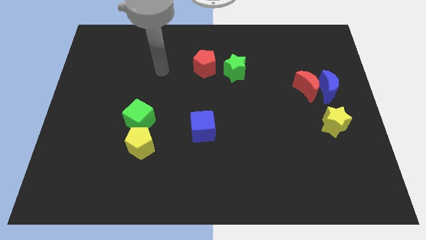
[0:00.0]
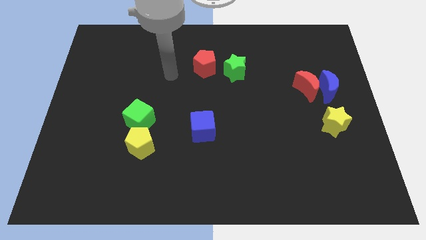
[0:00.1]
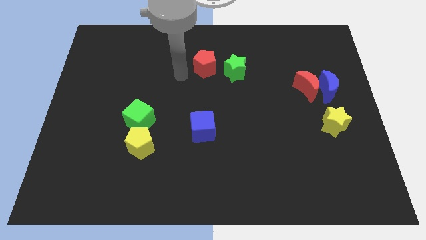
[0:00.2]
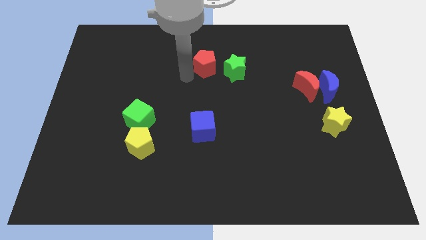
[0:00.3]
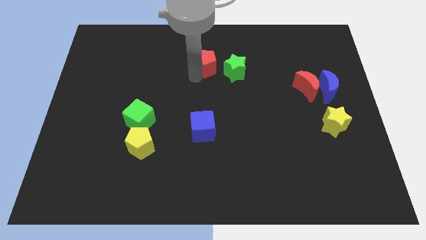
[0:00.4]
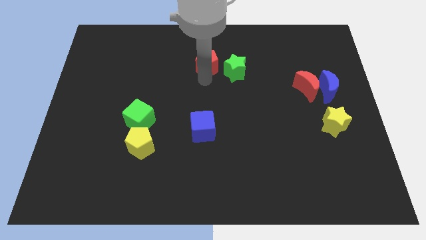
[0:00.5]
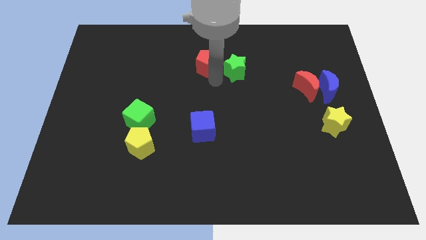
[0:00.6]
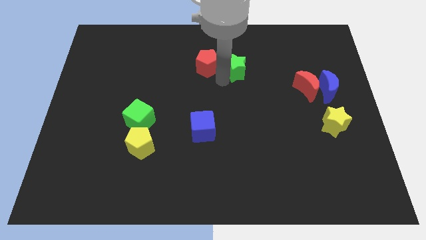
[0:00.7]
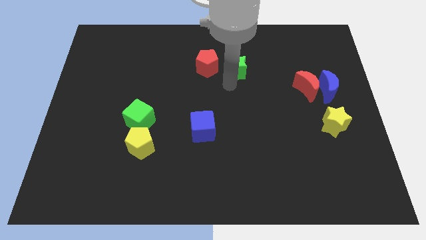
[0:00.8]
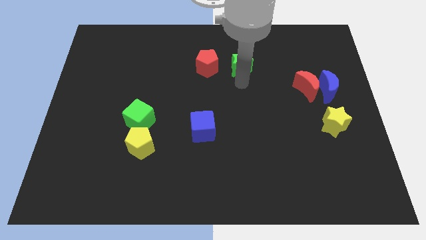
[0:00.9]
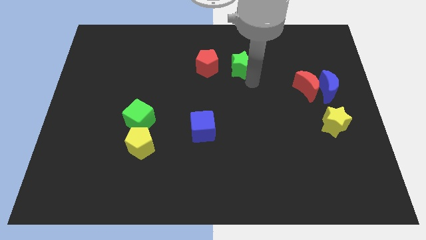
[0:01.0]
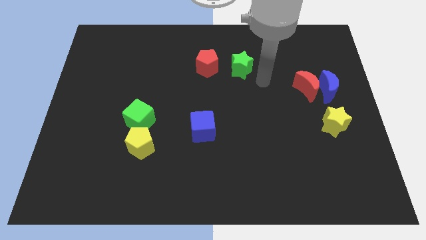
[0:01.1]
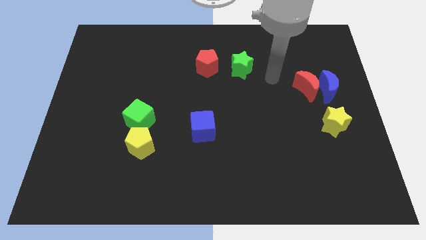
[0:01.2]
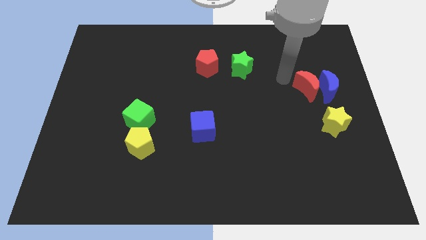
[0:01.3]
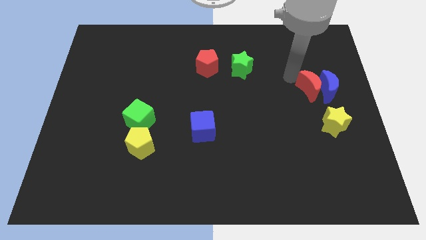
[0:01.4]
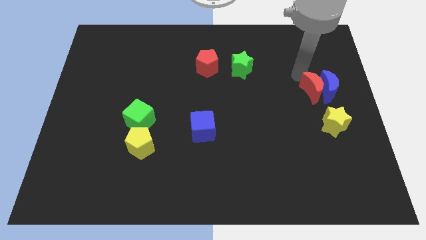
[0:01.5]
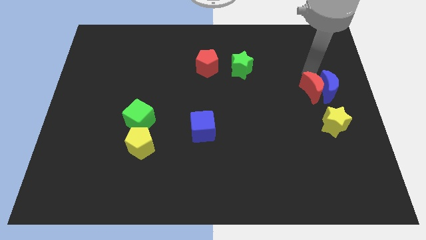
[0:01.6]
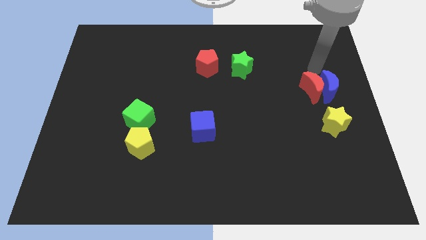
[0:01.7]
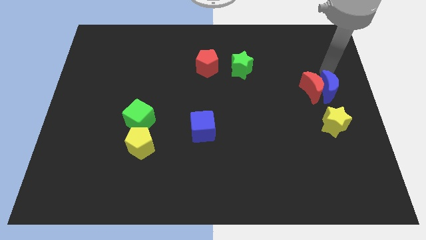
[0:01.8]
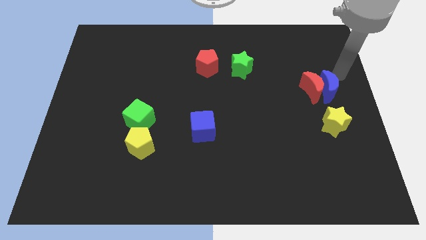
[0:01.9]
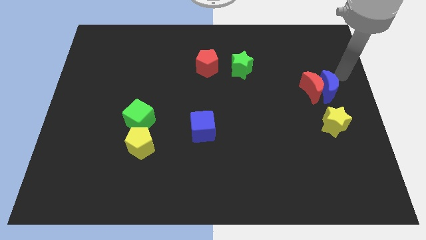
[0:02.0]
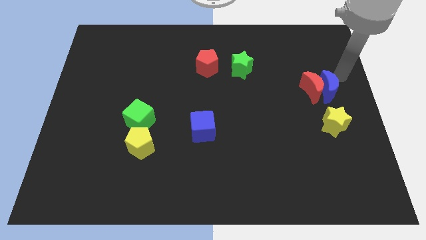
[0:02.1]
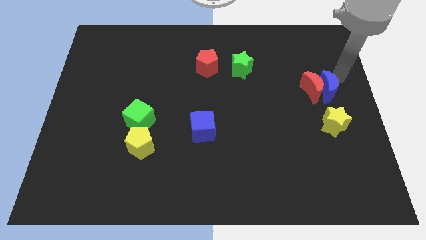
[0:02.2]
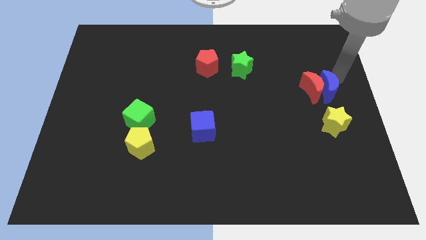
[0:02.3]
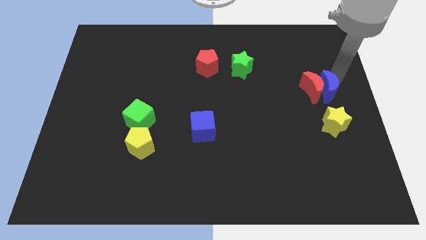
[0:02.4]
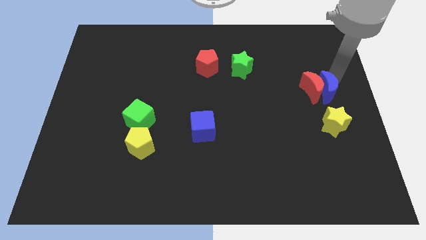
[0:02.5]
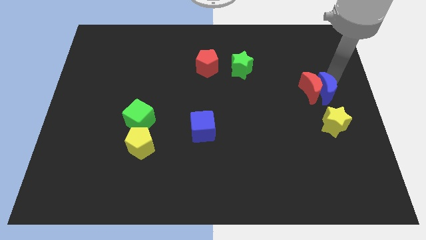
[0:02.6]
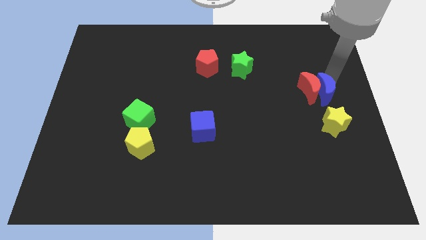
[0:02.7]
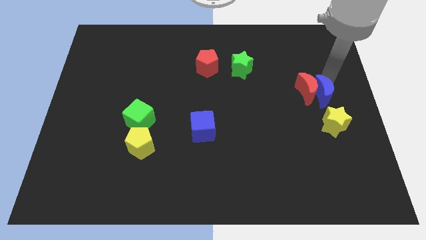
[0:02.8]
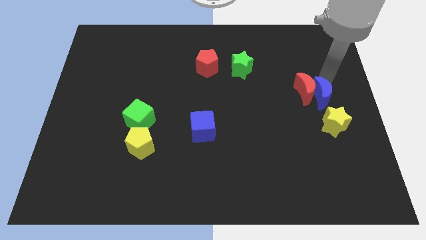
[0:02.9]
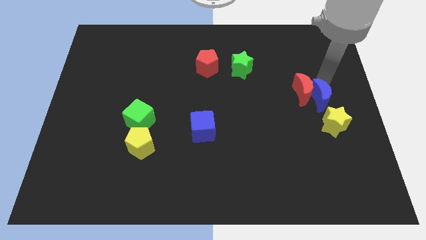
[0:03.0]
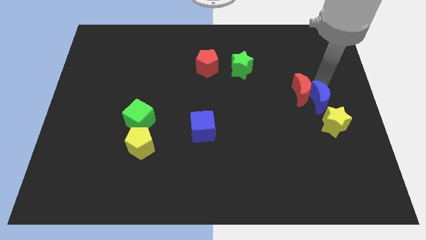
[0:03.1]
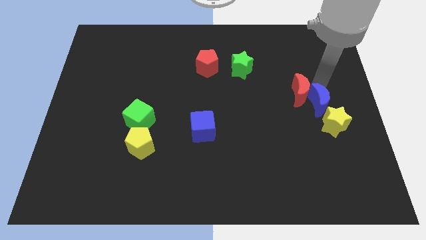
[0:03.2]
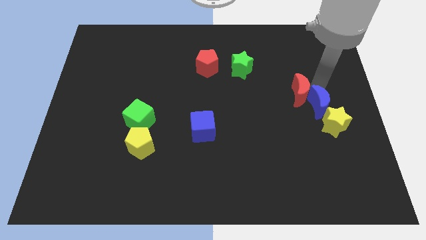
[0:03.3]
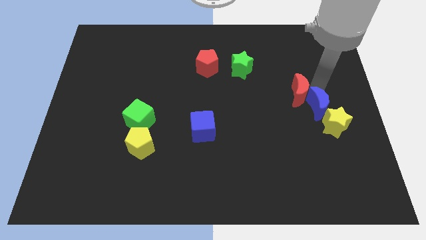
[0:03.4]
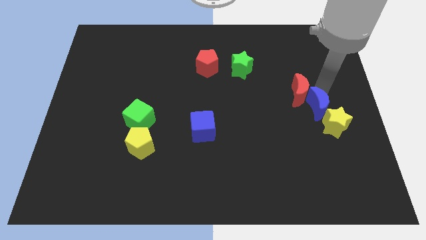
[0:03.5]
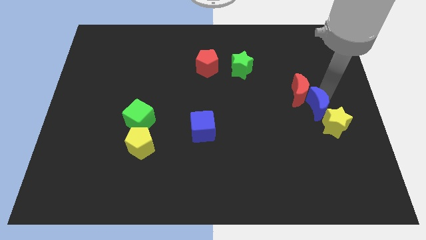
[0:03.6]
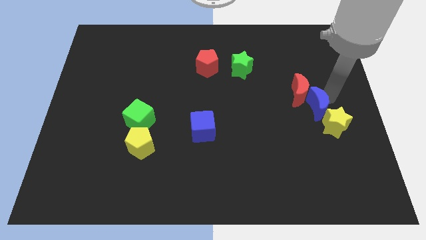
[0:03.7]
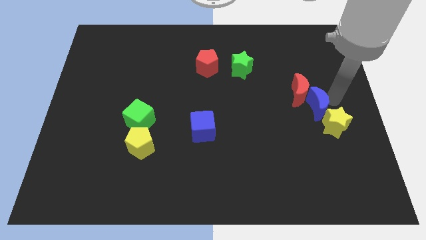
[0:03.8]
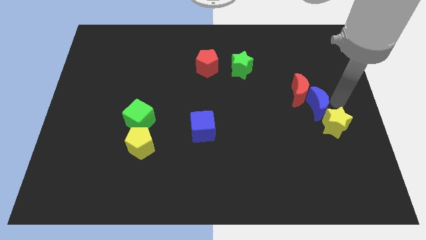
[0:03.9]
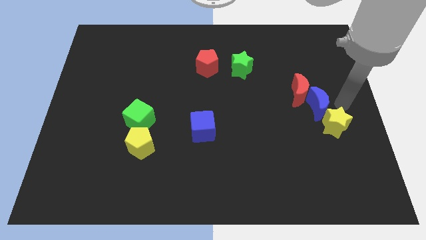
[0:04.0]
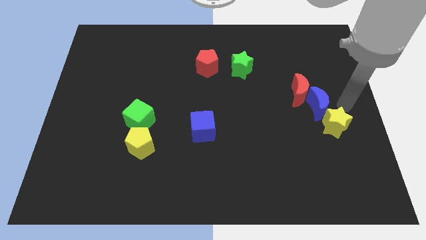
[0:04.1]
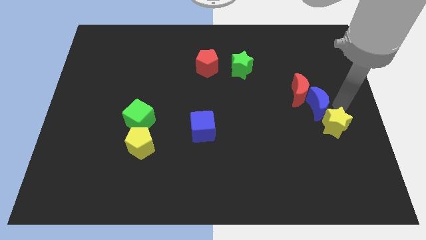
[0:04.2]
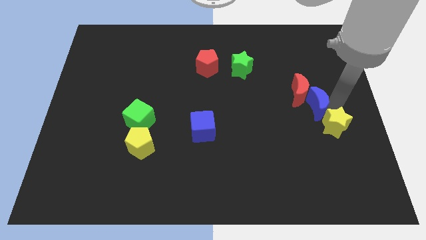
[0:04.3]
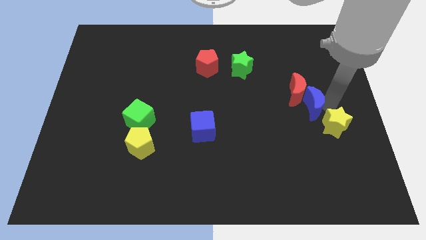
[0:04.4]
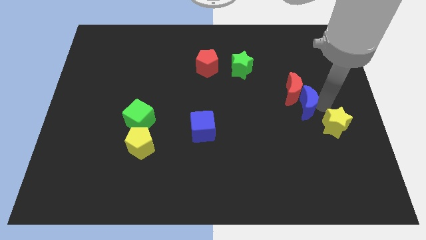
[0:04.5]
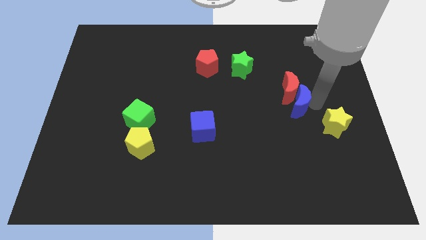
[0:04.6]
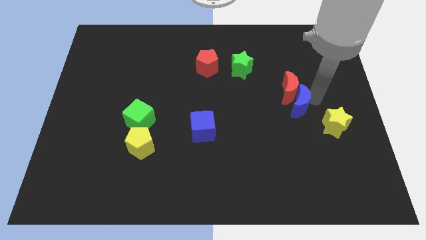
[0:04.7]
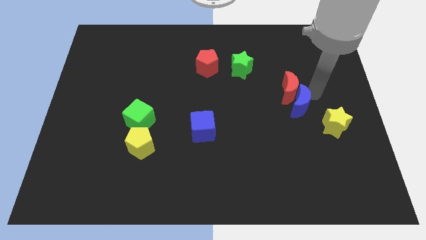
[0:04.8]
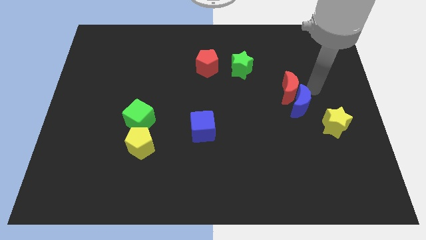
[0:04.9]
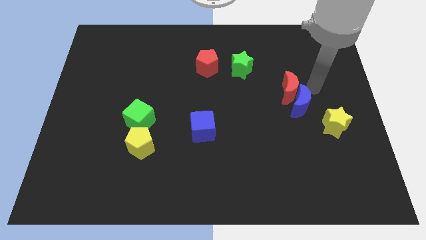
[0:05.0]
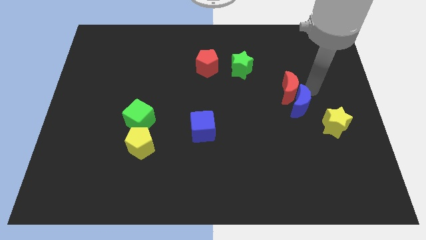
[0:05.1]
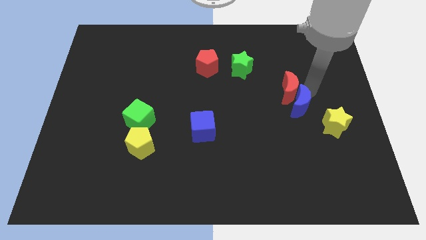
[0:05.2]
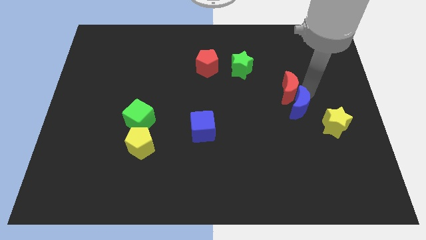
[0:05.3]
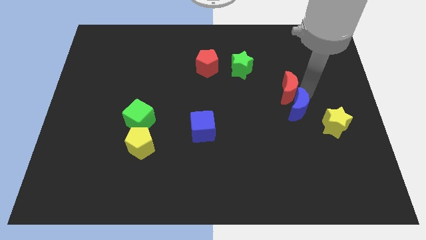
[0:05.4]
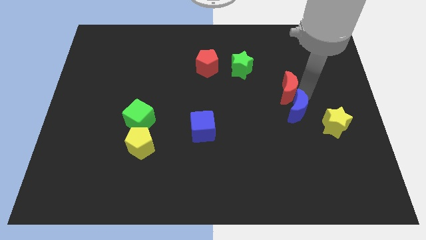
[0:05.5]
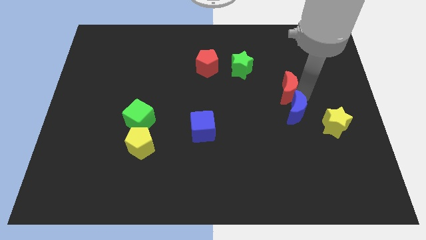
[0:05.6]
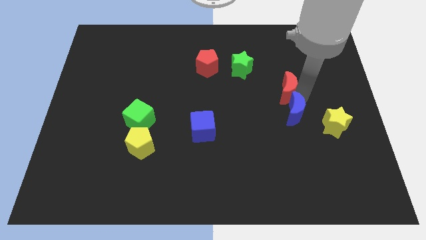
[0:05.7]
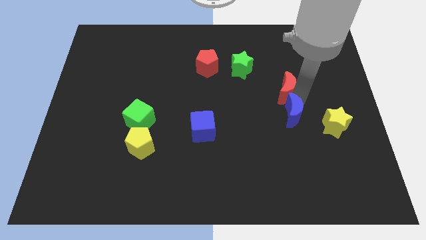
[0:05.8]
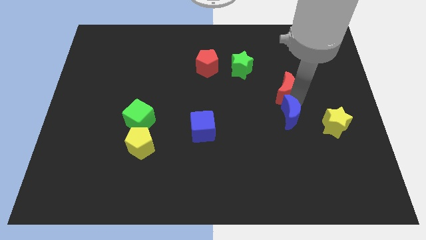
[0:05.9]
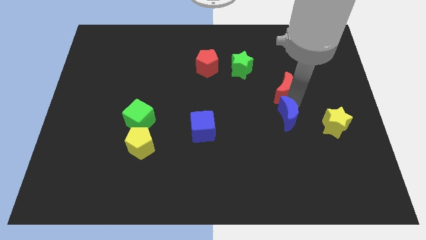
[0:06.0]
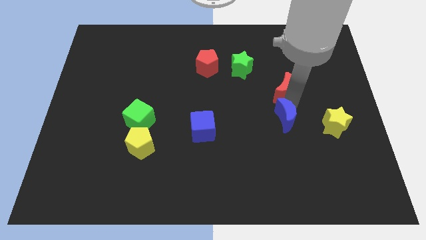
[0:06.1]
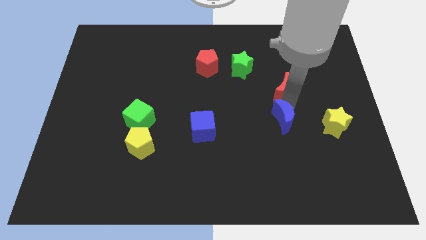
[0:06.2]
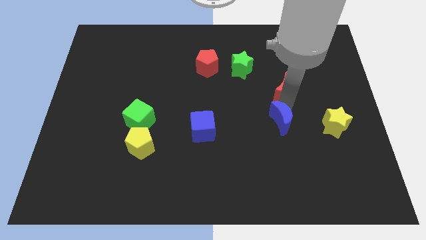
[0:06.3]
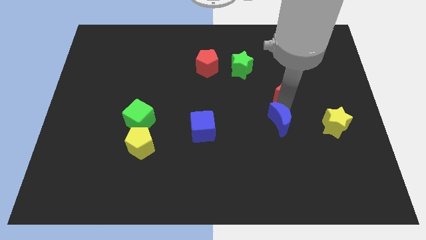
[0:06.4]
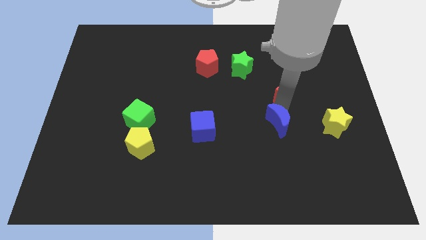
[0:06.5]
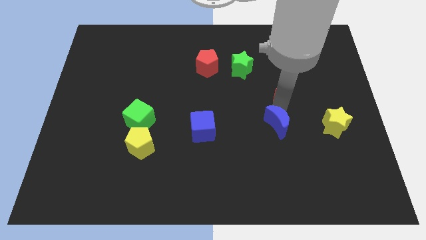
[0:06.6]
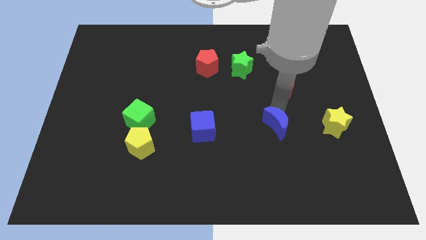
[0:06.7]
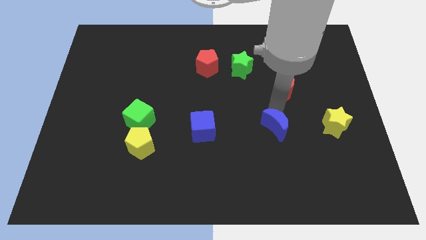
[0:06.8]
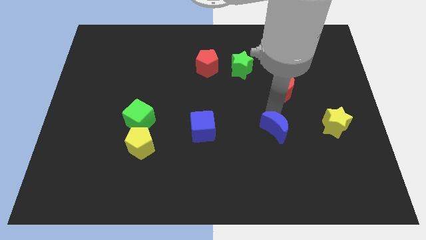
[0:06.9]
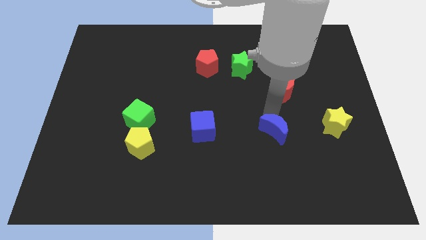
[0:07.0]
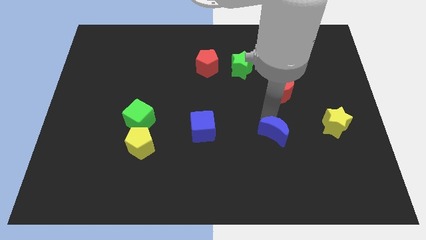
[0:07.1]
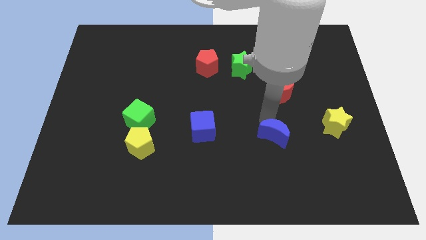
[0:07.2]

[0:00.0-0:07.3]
slide the blue moon downwards and then left

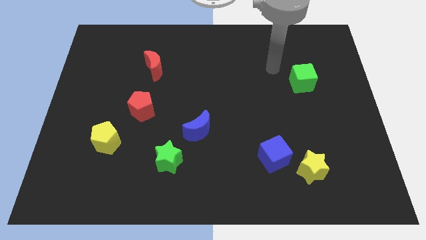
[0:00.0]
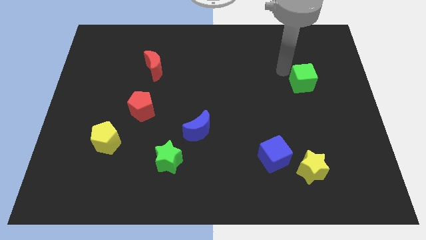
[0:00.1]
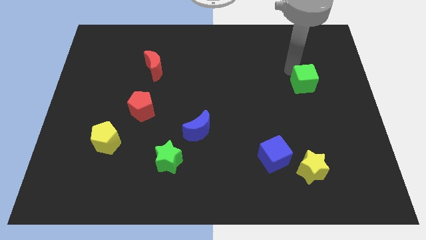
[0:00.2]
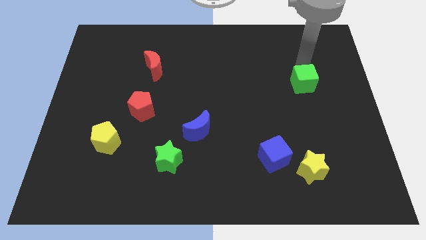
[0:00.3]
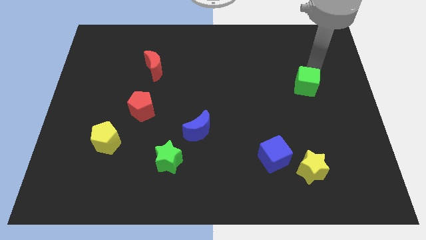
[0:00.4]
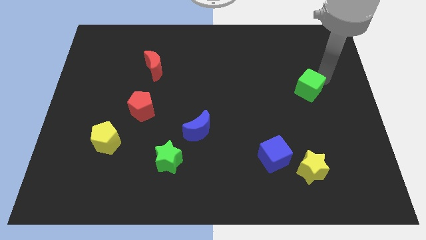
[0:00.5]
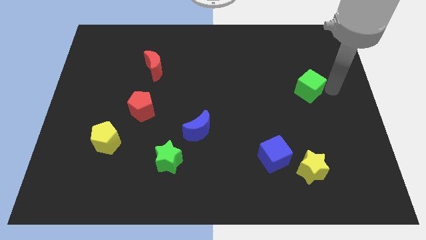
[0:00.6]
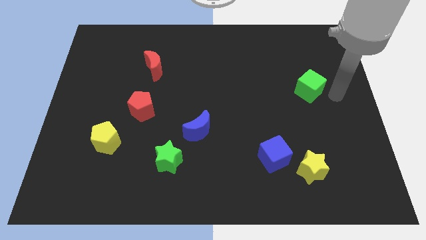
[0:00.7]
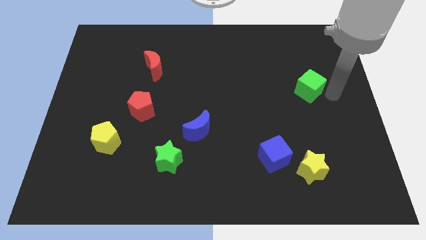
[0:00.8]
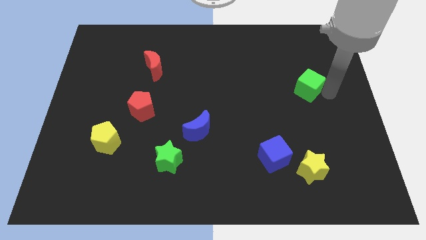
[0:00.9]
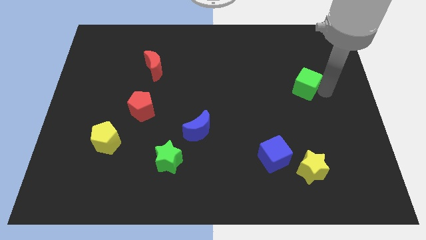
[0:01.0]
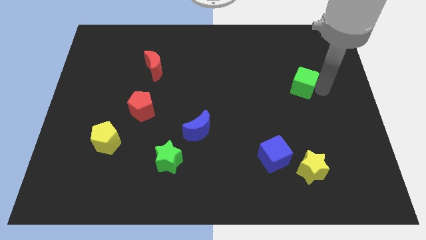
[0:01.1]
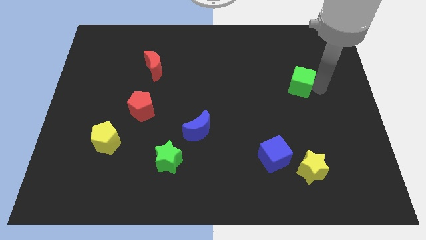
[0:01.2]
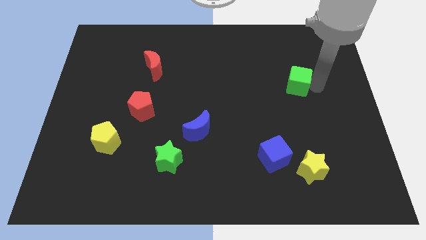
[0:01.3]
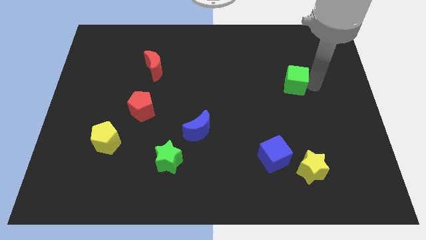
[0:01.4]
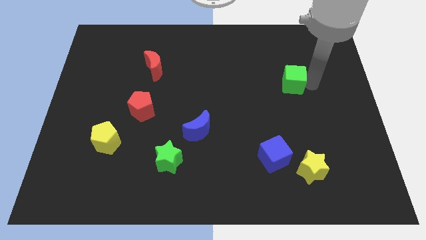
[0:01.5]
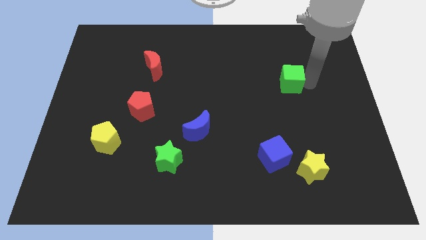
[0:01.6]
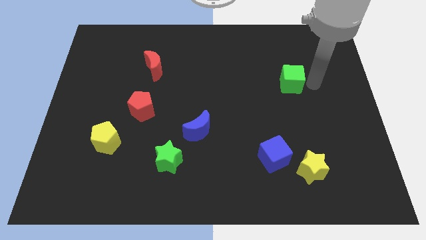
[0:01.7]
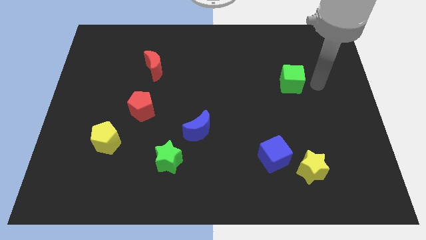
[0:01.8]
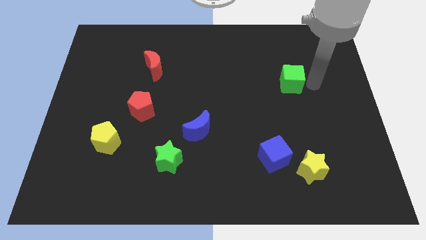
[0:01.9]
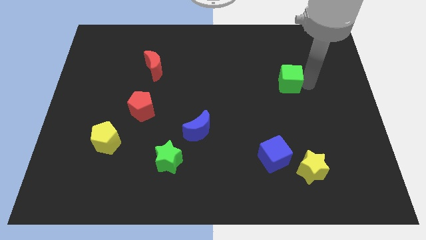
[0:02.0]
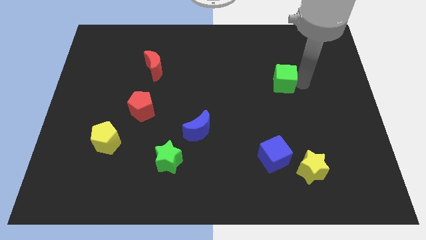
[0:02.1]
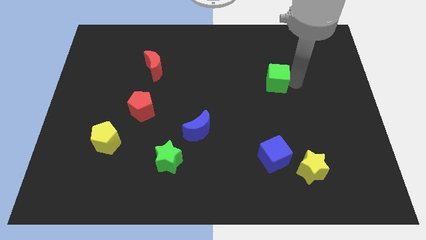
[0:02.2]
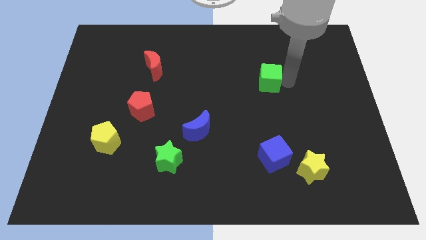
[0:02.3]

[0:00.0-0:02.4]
slightly push the green cube to the left
